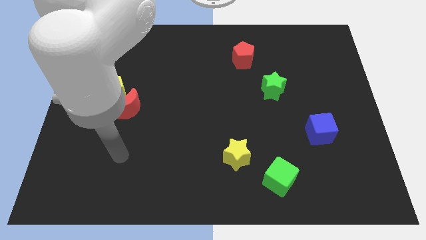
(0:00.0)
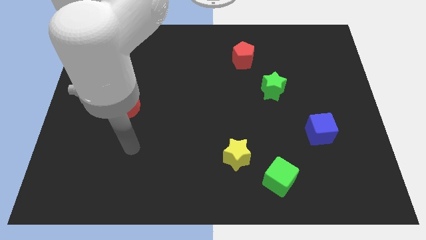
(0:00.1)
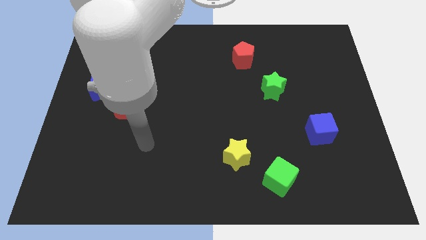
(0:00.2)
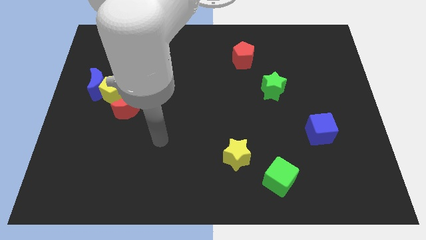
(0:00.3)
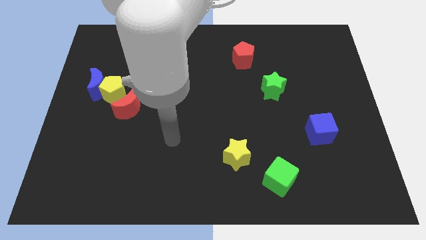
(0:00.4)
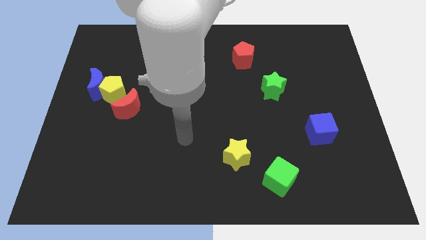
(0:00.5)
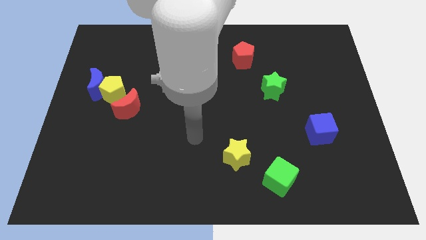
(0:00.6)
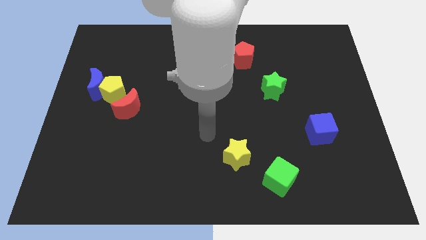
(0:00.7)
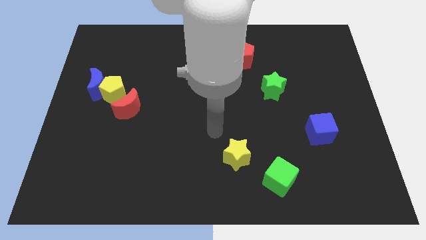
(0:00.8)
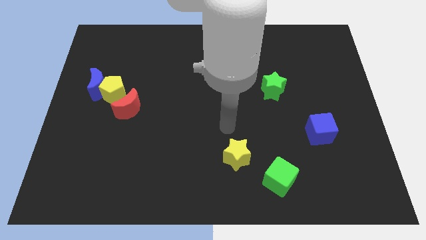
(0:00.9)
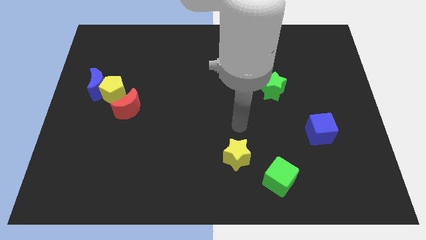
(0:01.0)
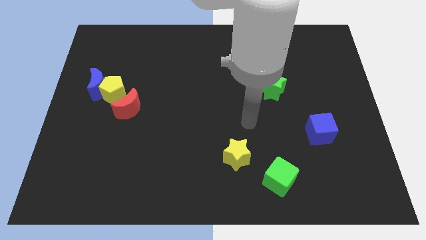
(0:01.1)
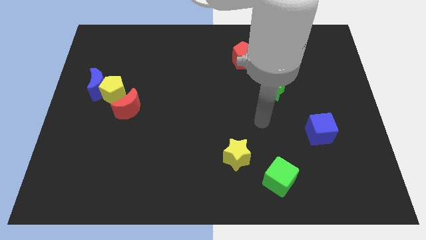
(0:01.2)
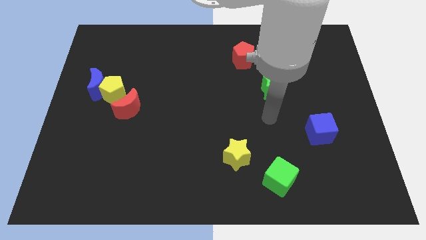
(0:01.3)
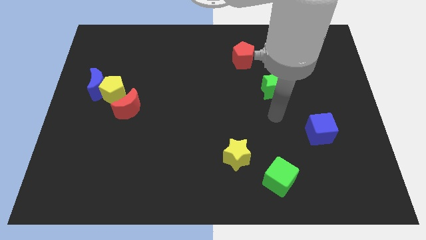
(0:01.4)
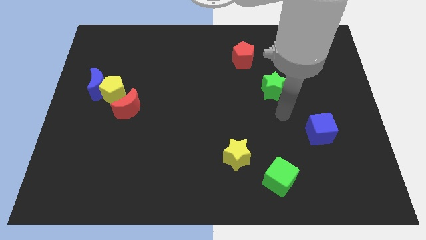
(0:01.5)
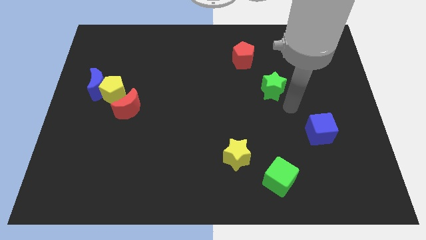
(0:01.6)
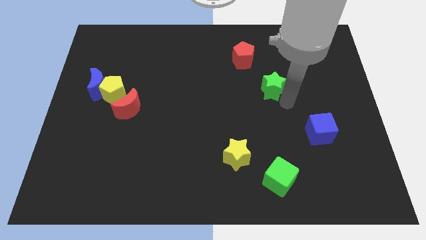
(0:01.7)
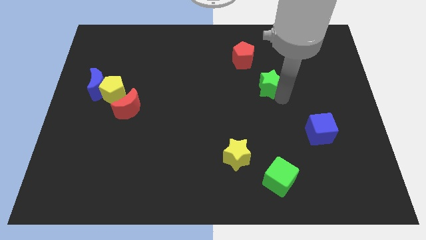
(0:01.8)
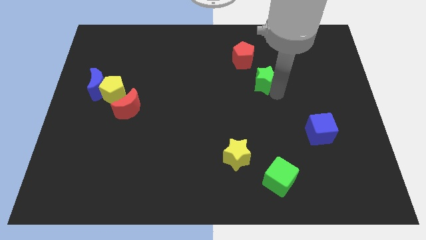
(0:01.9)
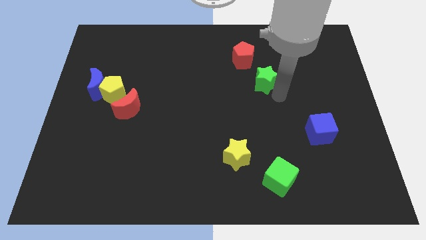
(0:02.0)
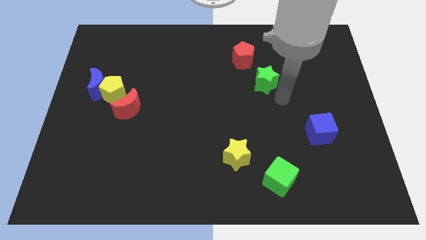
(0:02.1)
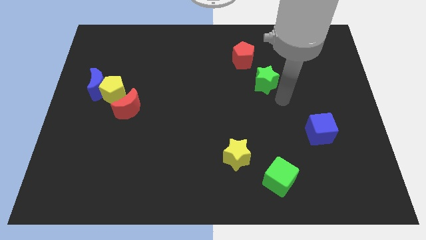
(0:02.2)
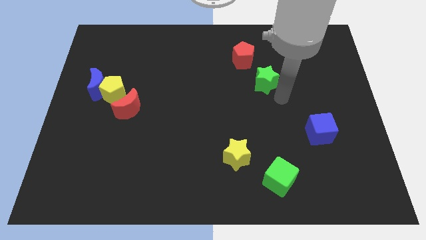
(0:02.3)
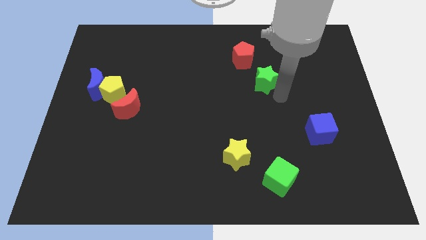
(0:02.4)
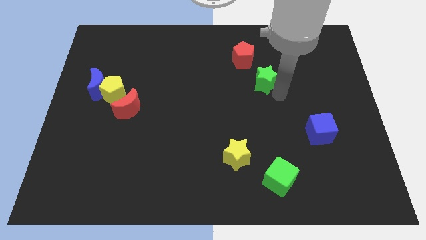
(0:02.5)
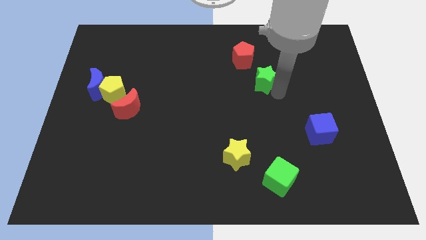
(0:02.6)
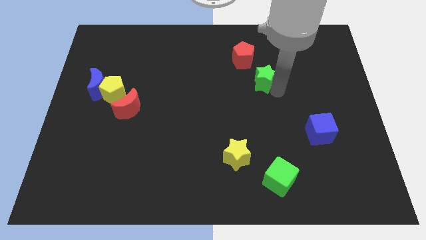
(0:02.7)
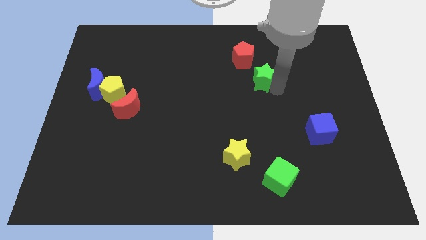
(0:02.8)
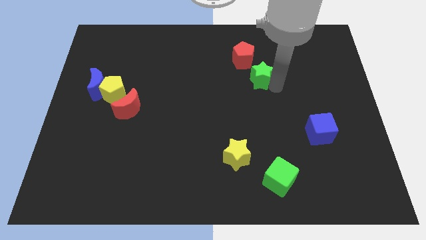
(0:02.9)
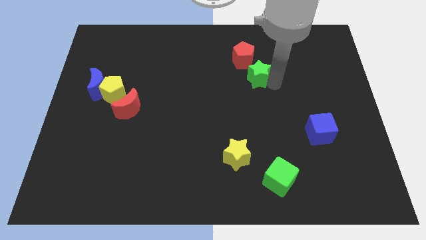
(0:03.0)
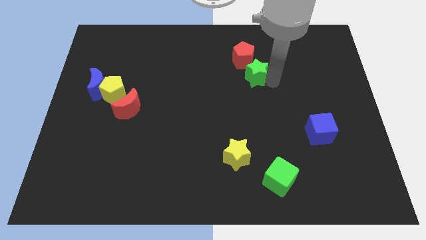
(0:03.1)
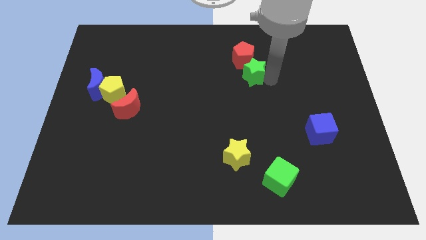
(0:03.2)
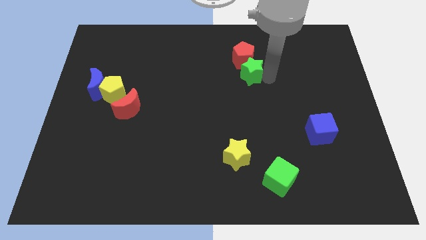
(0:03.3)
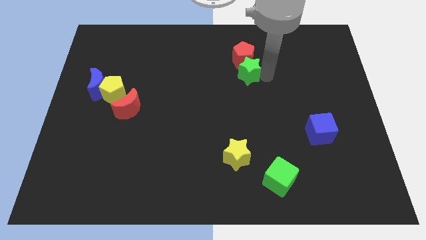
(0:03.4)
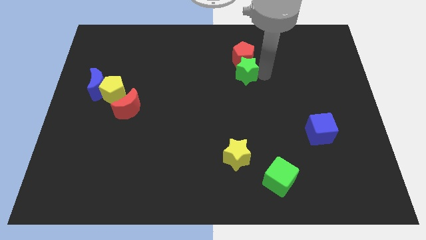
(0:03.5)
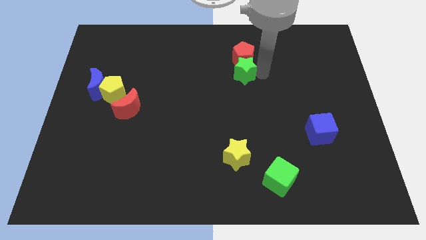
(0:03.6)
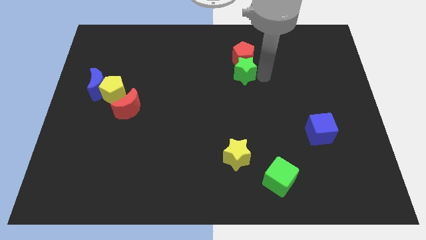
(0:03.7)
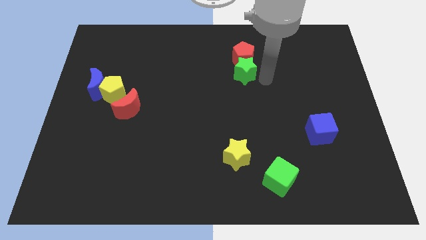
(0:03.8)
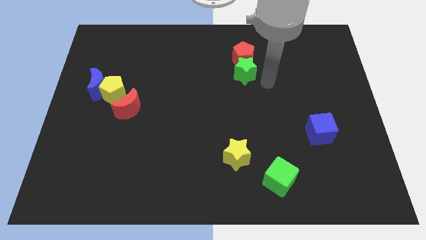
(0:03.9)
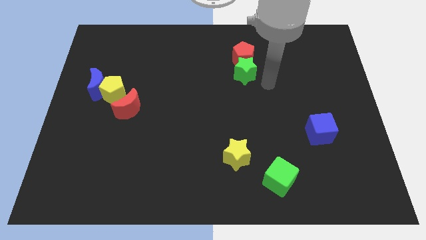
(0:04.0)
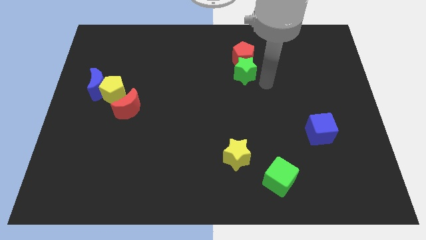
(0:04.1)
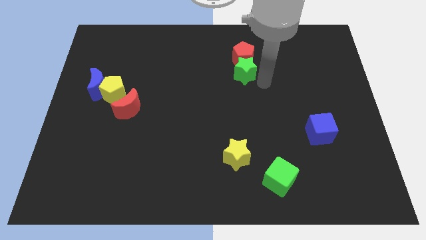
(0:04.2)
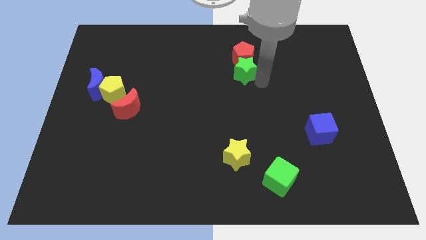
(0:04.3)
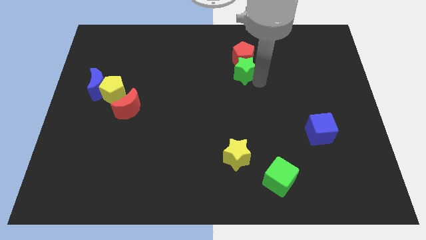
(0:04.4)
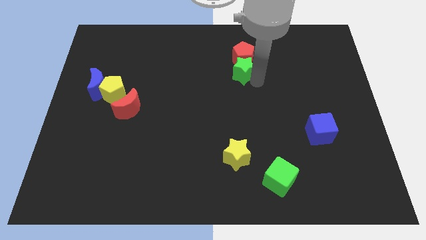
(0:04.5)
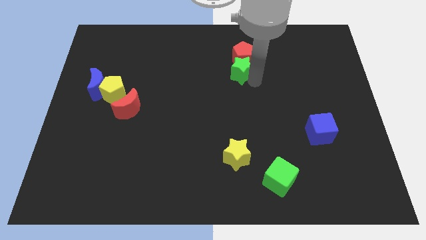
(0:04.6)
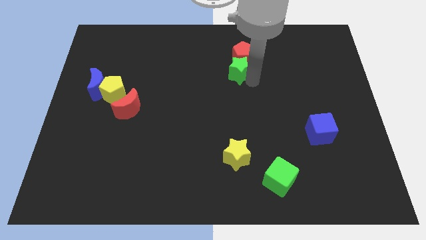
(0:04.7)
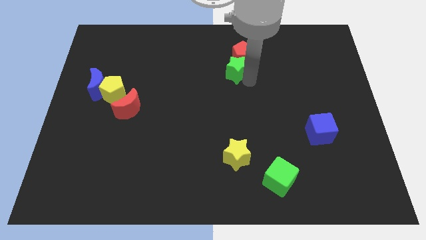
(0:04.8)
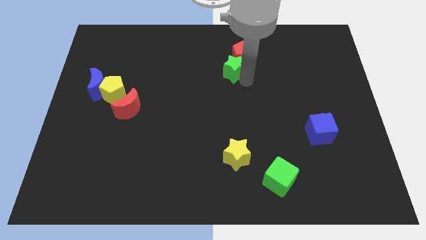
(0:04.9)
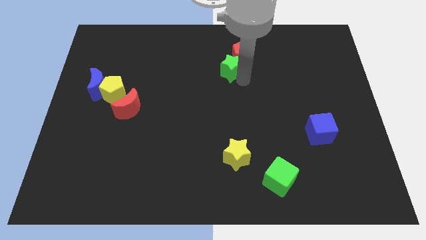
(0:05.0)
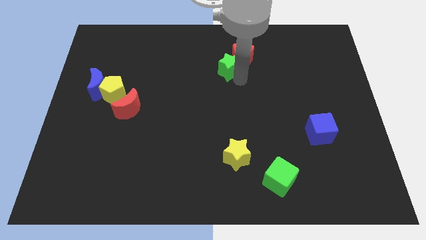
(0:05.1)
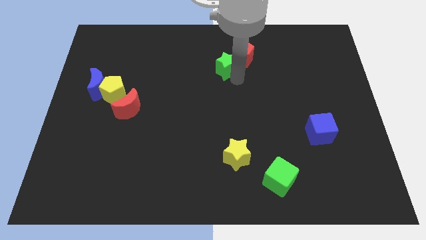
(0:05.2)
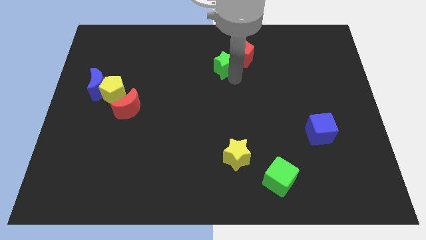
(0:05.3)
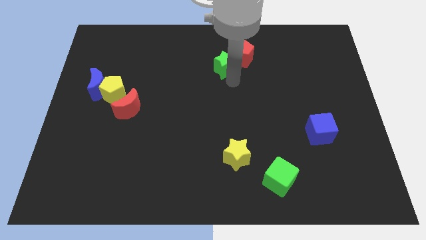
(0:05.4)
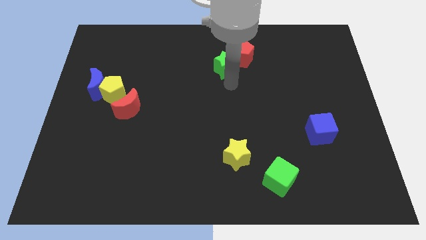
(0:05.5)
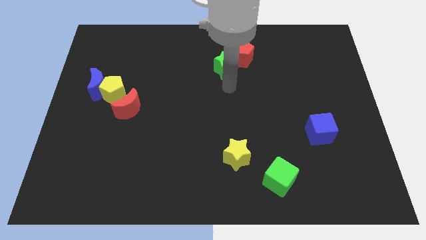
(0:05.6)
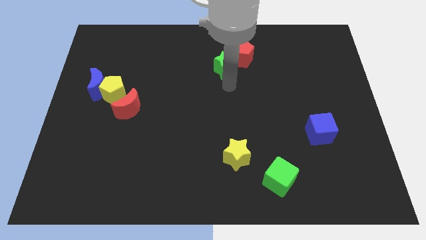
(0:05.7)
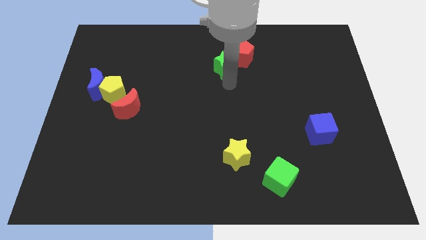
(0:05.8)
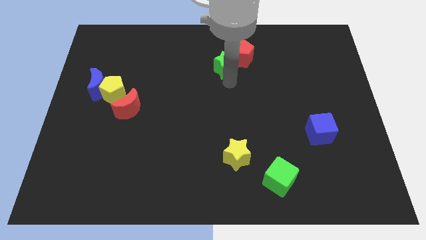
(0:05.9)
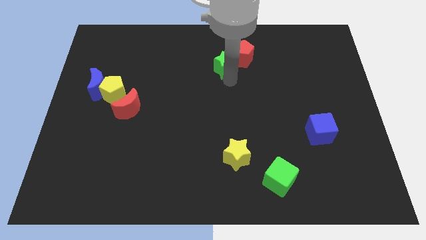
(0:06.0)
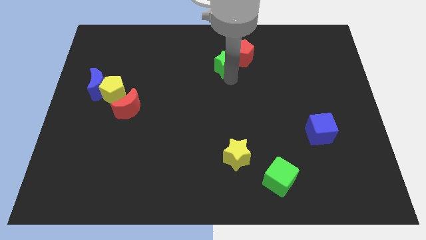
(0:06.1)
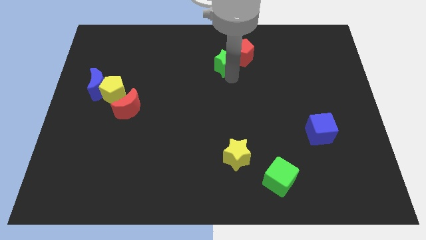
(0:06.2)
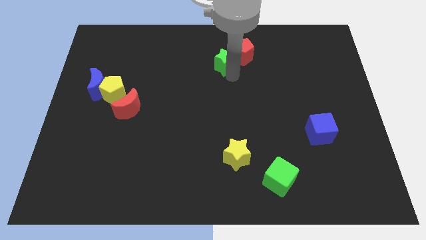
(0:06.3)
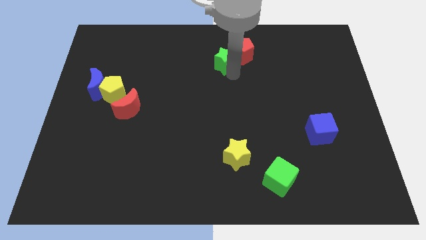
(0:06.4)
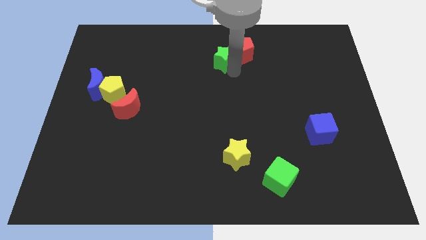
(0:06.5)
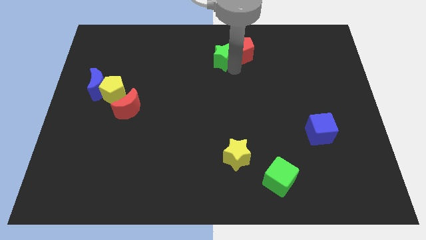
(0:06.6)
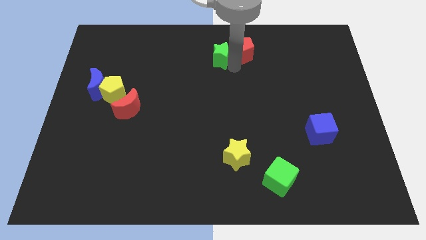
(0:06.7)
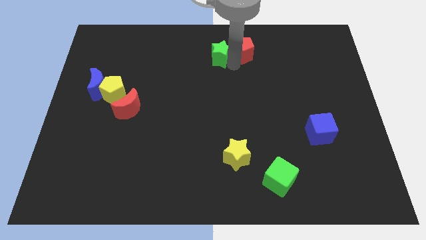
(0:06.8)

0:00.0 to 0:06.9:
push the green star to the top side

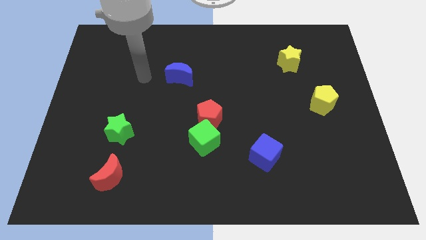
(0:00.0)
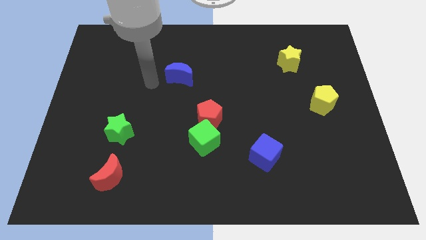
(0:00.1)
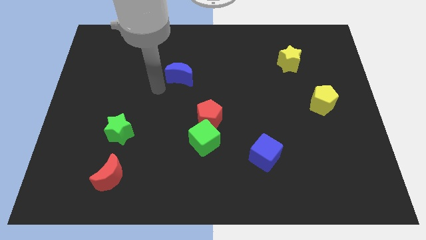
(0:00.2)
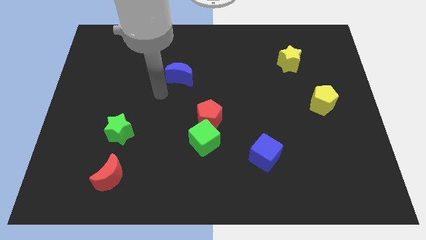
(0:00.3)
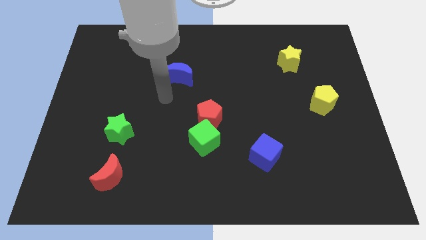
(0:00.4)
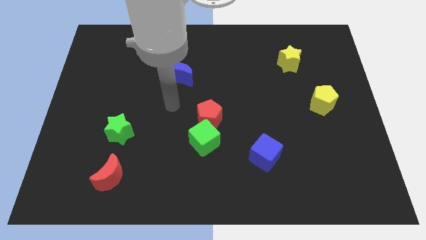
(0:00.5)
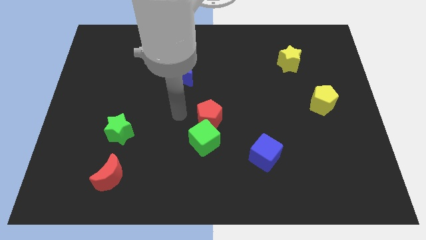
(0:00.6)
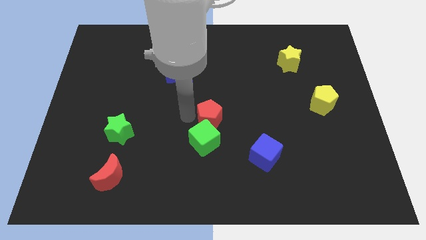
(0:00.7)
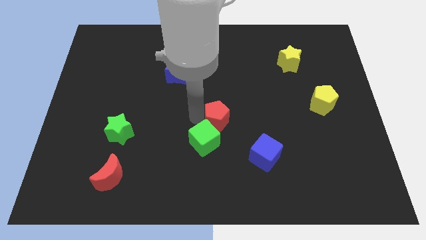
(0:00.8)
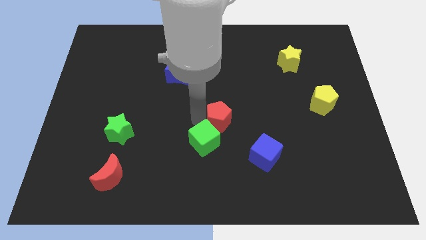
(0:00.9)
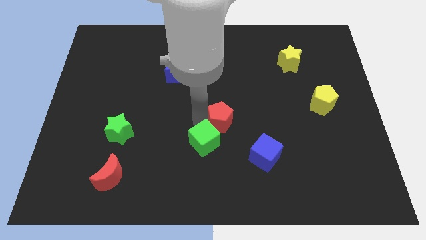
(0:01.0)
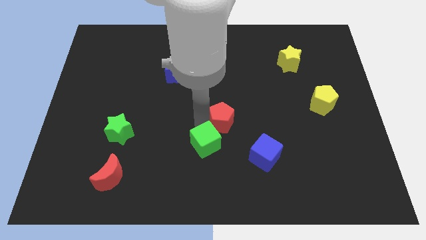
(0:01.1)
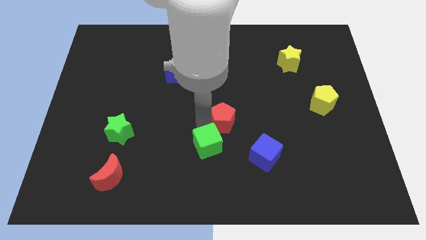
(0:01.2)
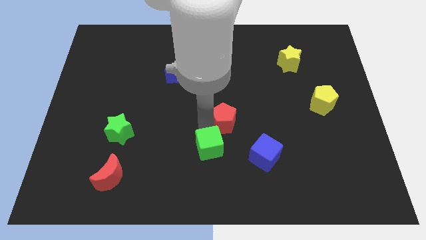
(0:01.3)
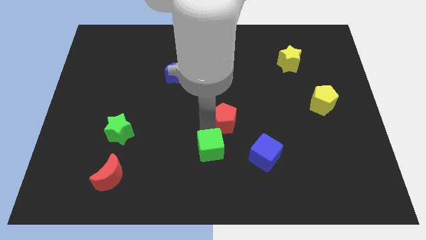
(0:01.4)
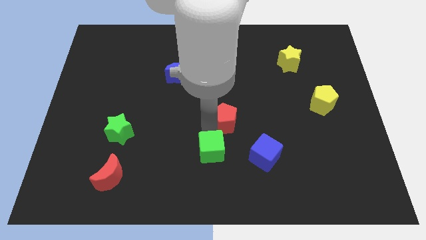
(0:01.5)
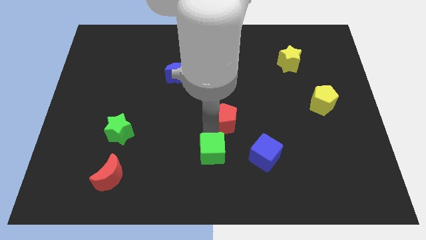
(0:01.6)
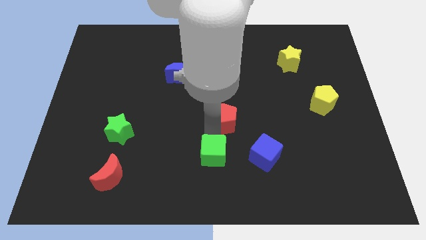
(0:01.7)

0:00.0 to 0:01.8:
slide the green cube to the bottom
